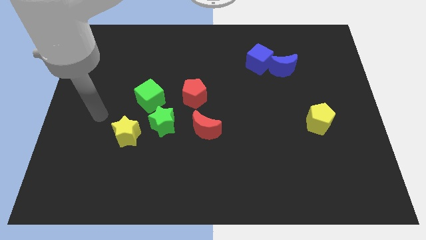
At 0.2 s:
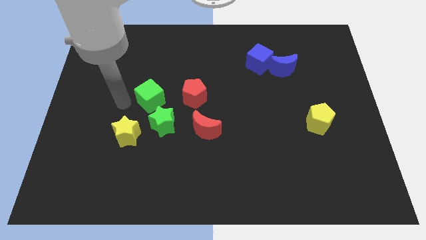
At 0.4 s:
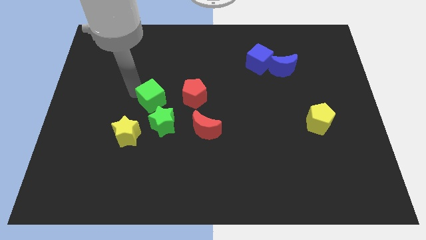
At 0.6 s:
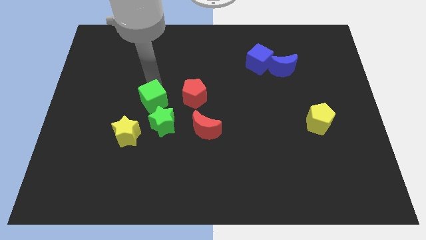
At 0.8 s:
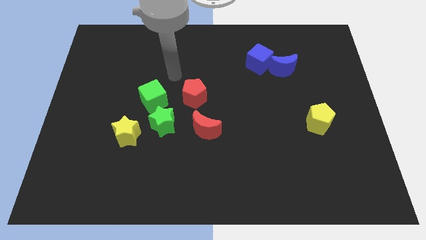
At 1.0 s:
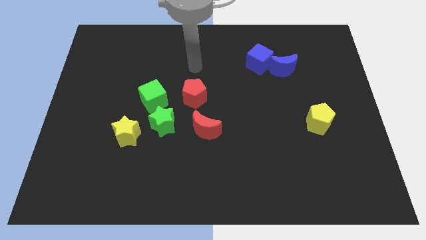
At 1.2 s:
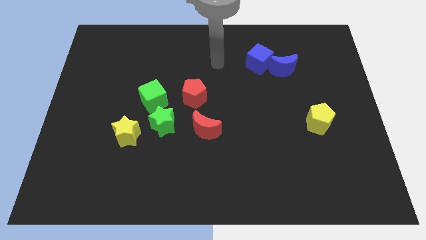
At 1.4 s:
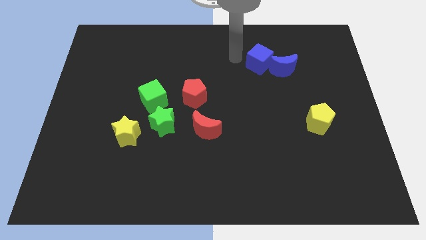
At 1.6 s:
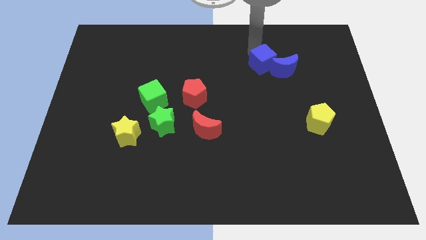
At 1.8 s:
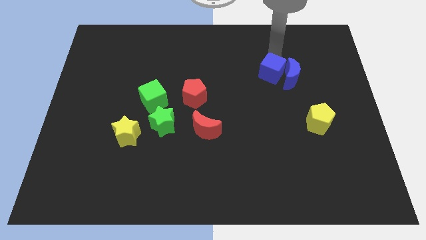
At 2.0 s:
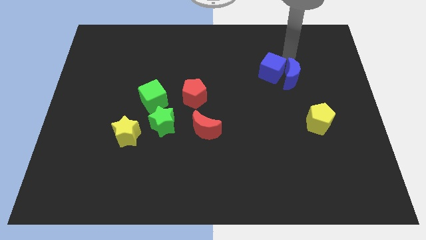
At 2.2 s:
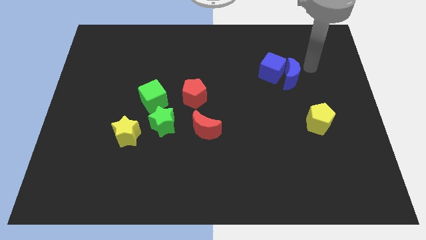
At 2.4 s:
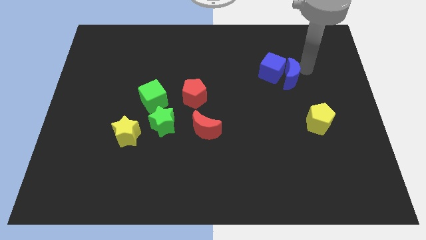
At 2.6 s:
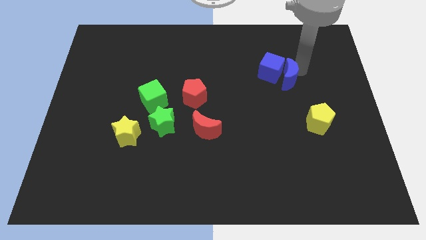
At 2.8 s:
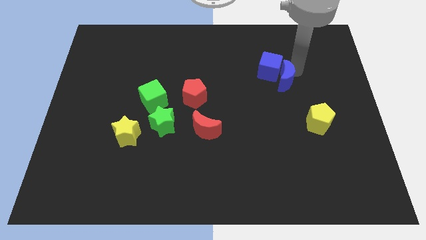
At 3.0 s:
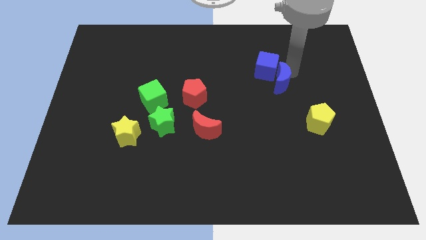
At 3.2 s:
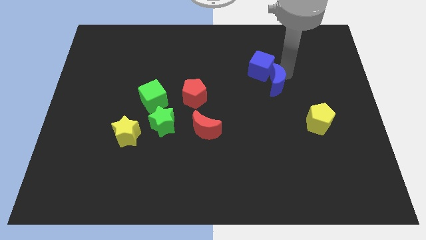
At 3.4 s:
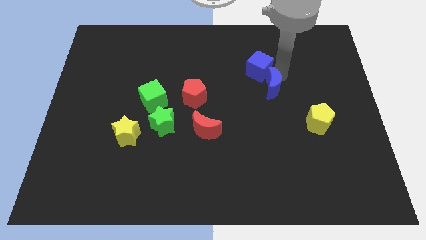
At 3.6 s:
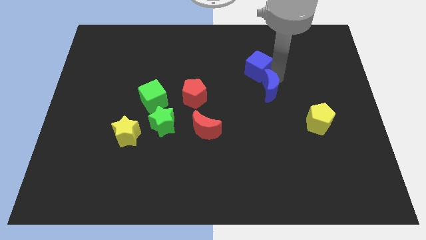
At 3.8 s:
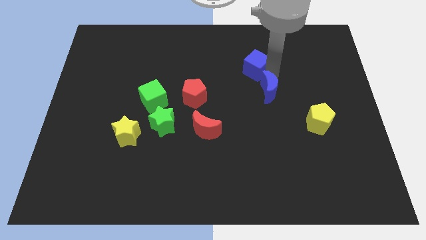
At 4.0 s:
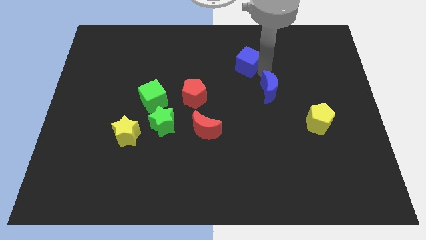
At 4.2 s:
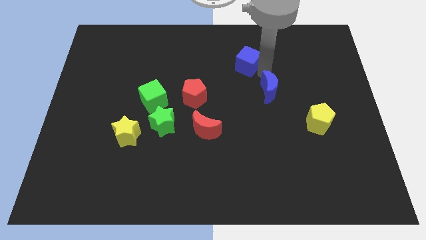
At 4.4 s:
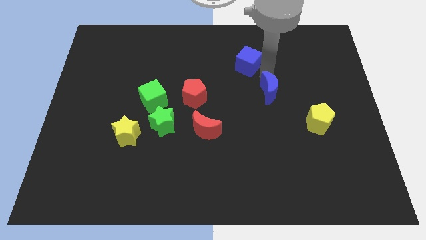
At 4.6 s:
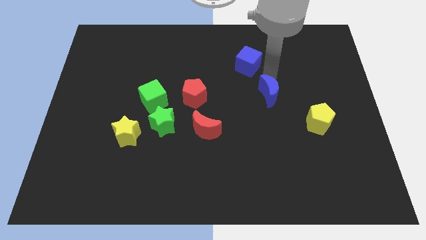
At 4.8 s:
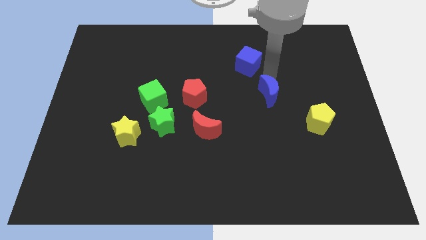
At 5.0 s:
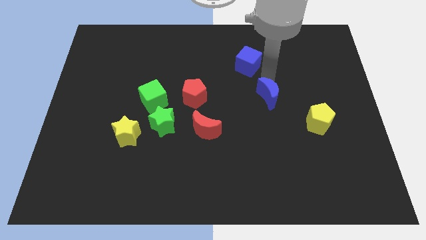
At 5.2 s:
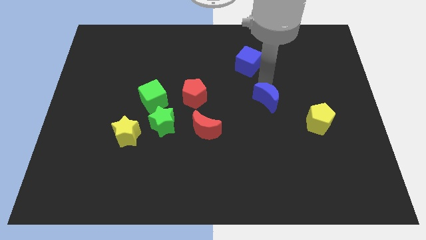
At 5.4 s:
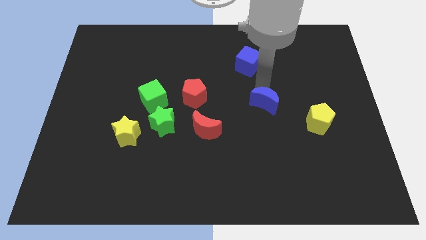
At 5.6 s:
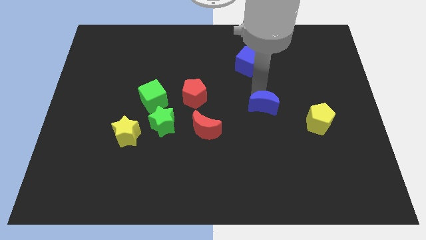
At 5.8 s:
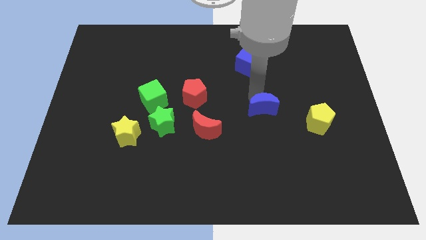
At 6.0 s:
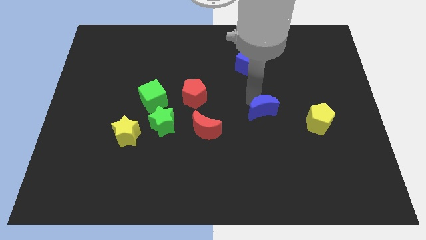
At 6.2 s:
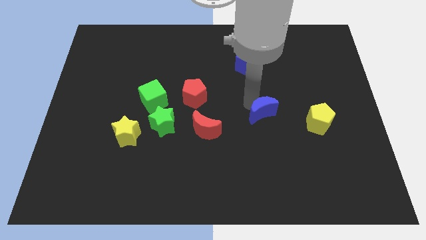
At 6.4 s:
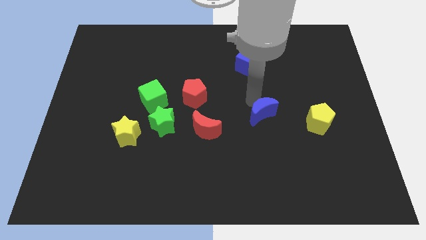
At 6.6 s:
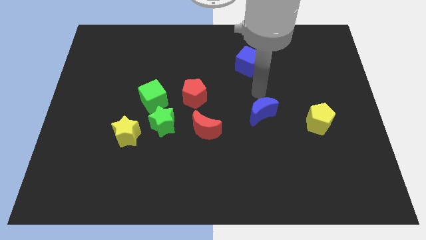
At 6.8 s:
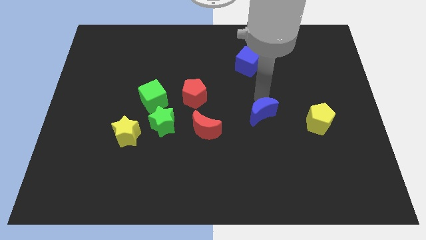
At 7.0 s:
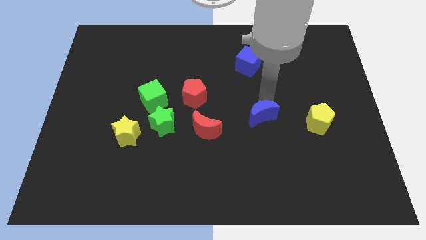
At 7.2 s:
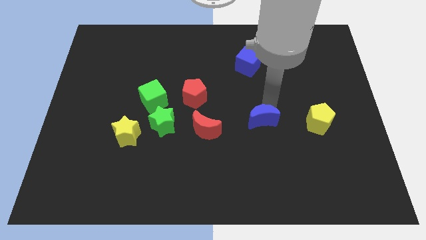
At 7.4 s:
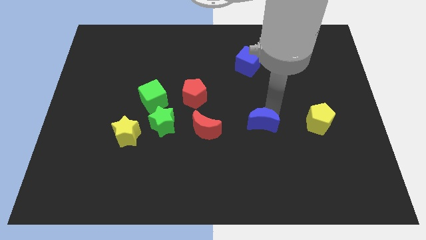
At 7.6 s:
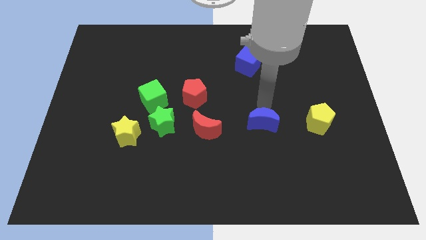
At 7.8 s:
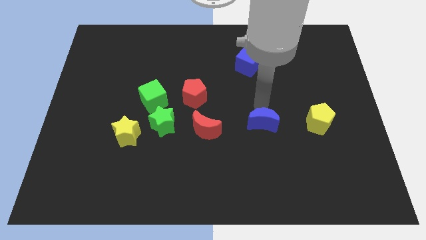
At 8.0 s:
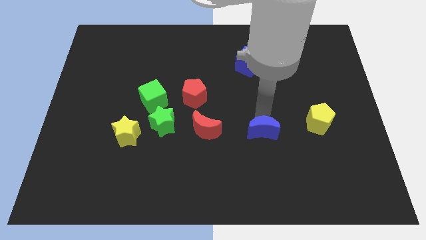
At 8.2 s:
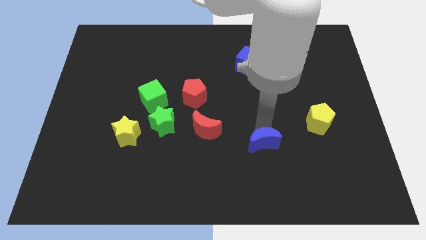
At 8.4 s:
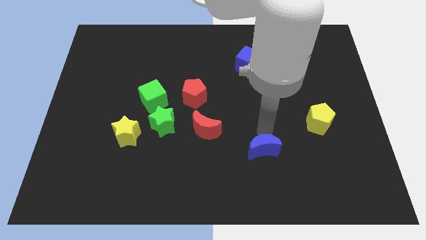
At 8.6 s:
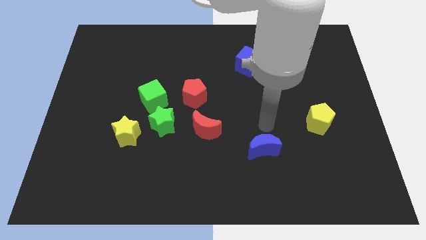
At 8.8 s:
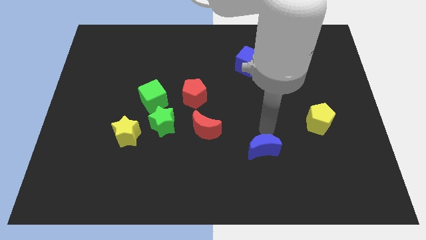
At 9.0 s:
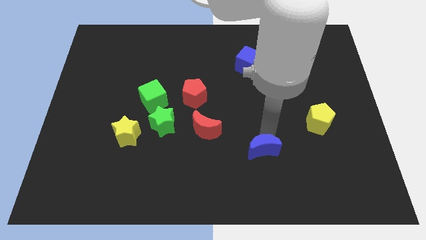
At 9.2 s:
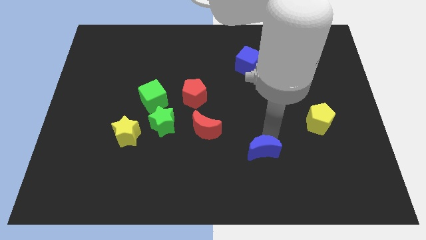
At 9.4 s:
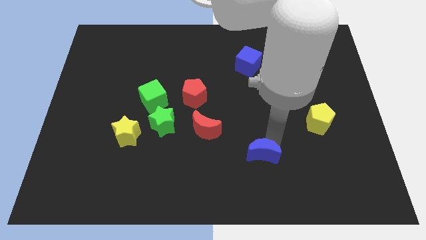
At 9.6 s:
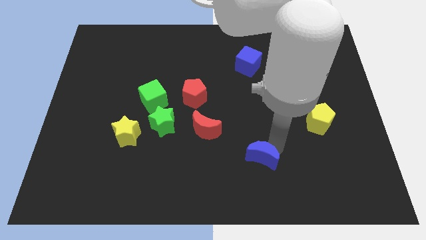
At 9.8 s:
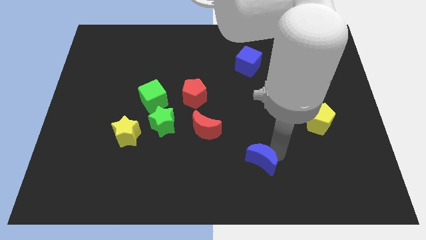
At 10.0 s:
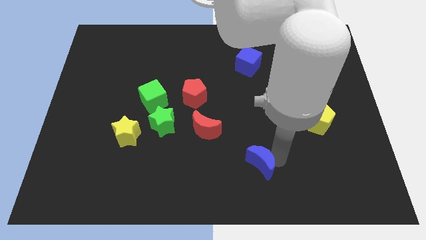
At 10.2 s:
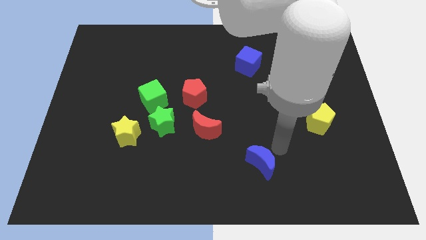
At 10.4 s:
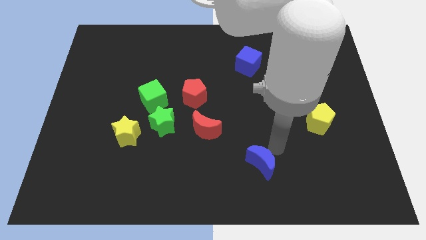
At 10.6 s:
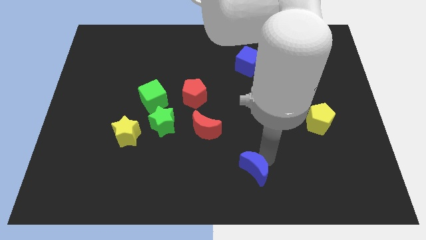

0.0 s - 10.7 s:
put the blue moon to the bottom side

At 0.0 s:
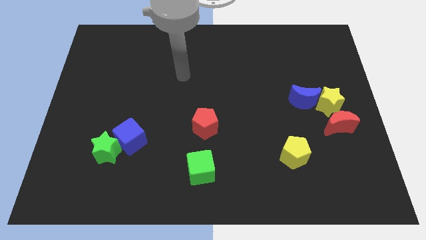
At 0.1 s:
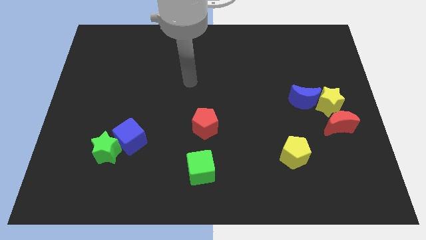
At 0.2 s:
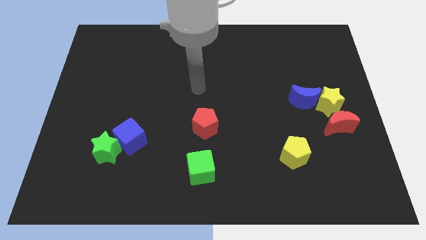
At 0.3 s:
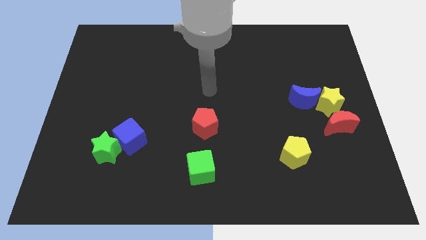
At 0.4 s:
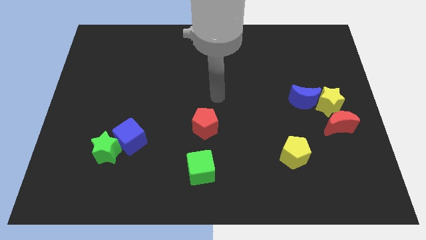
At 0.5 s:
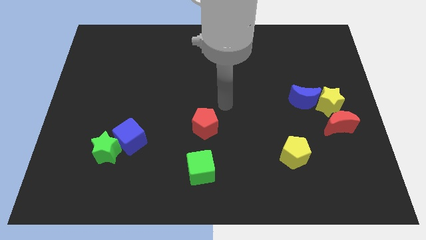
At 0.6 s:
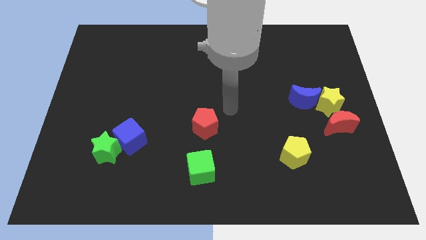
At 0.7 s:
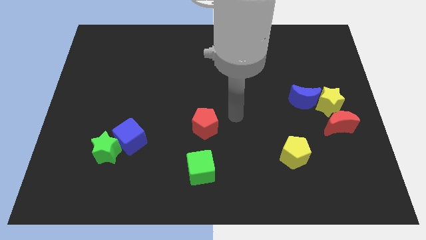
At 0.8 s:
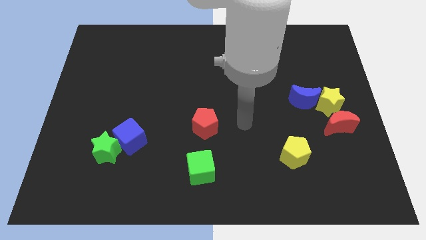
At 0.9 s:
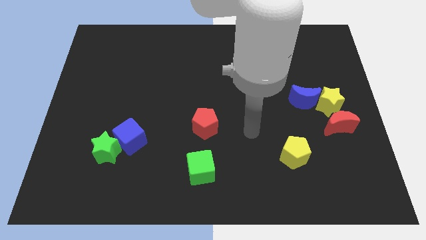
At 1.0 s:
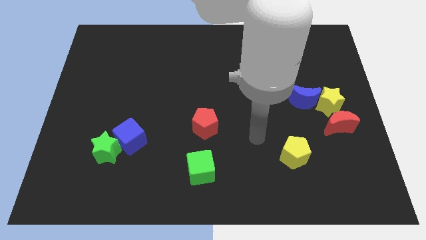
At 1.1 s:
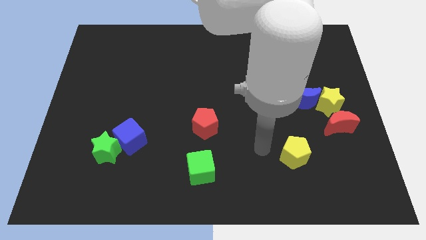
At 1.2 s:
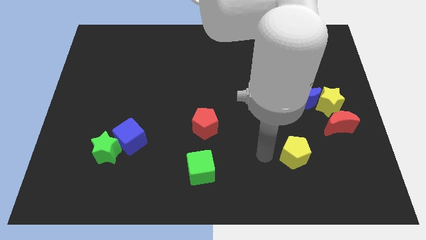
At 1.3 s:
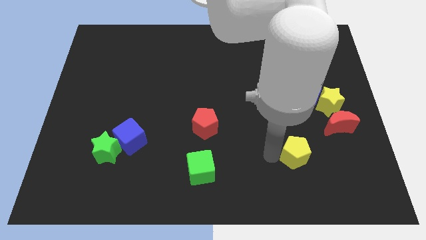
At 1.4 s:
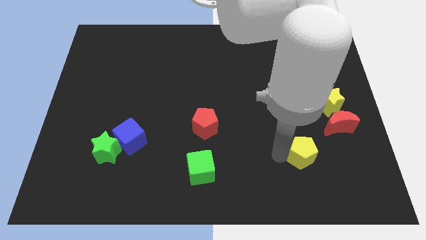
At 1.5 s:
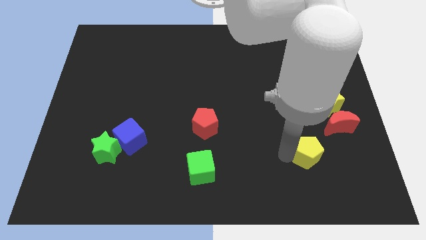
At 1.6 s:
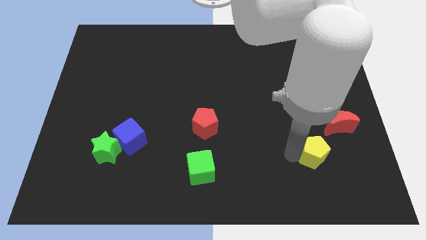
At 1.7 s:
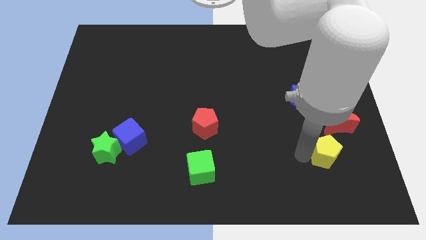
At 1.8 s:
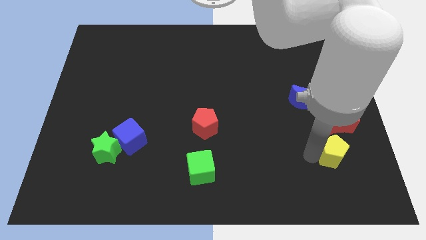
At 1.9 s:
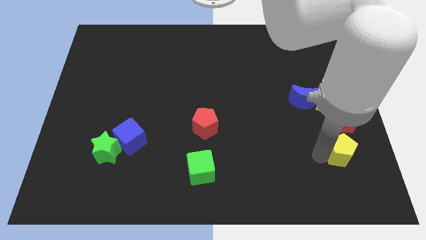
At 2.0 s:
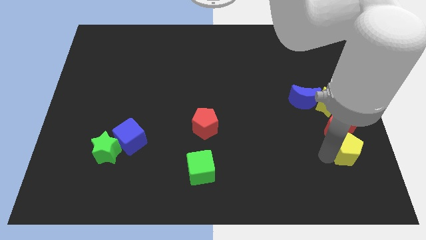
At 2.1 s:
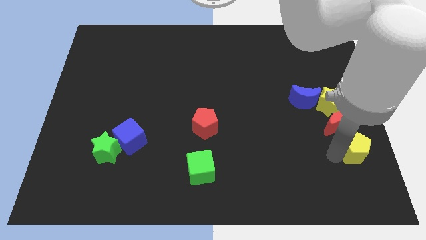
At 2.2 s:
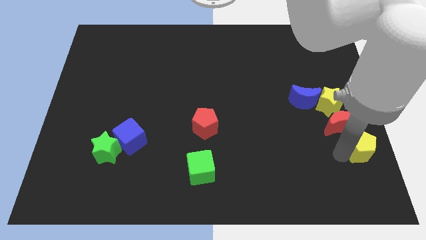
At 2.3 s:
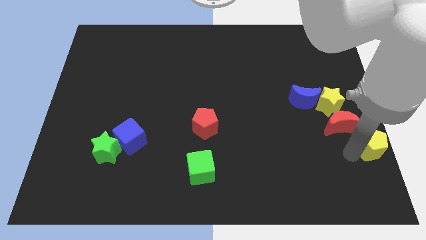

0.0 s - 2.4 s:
put the yellow pentagon to the right side
